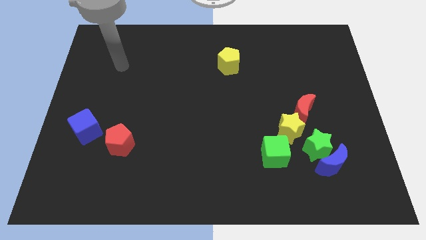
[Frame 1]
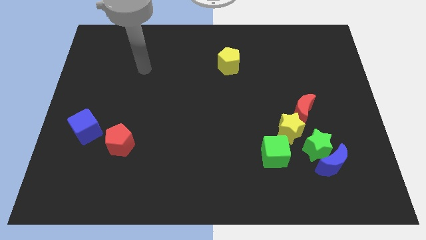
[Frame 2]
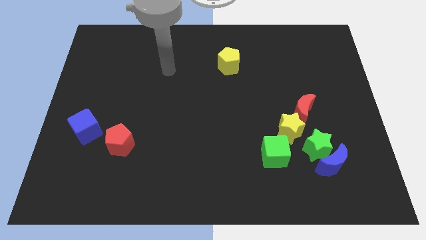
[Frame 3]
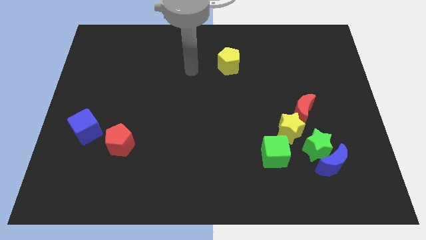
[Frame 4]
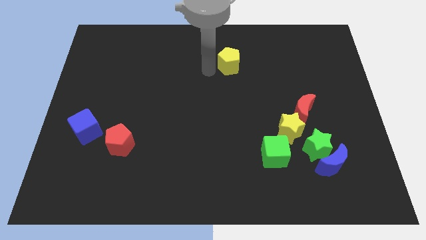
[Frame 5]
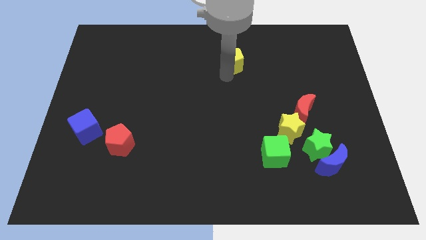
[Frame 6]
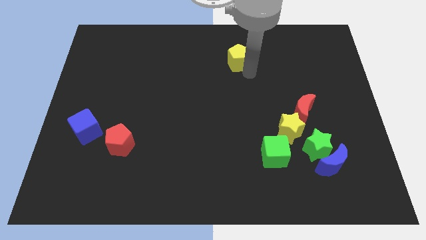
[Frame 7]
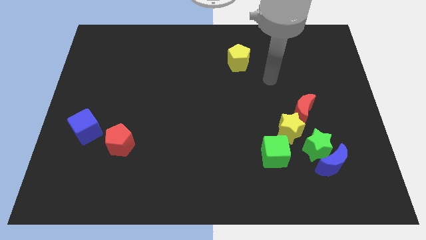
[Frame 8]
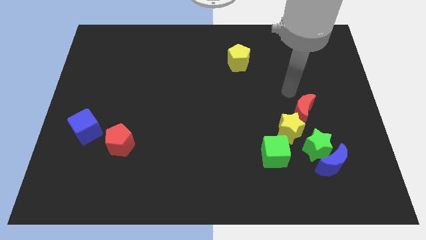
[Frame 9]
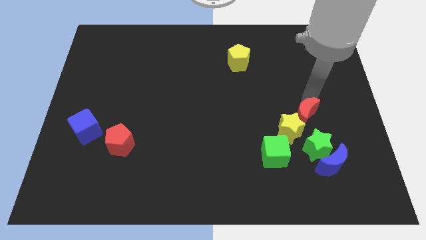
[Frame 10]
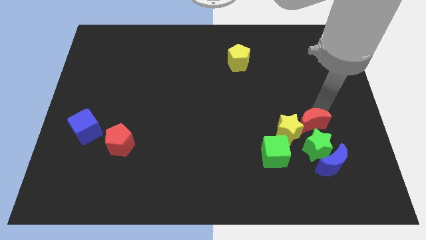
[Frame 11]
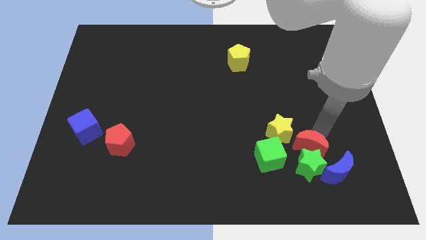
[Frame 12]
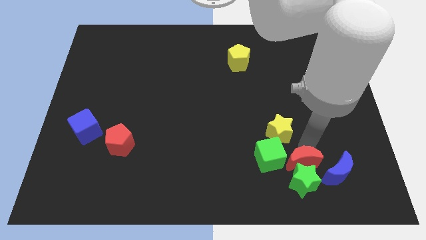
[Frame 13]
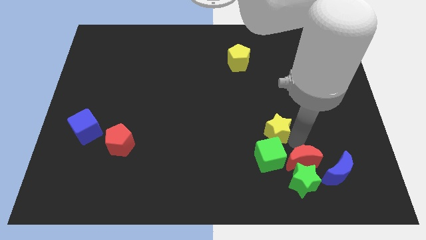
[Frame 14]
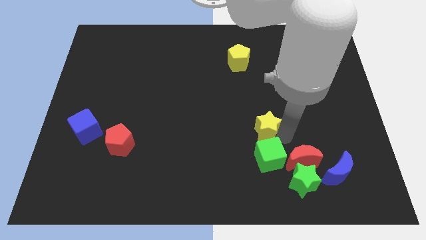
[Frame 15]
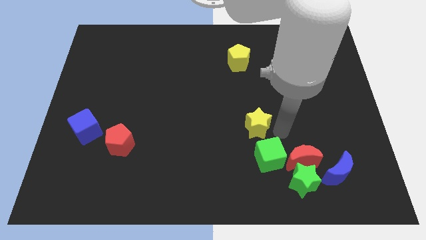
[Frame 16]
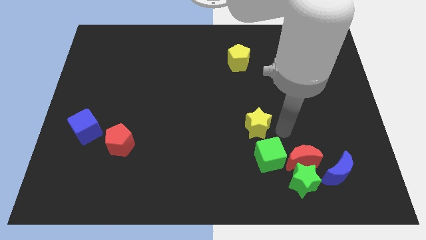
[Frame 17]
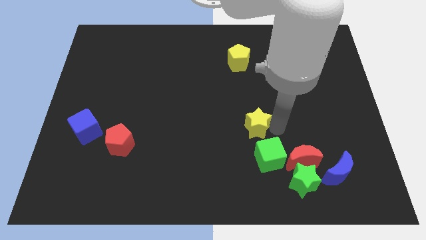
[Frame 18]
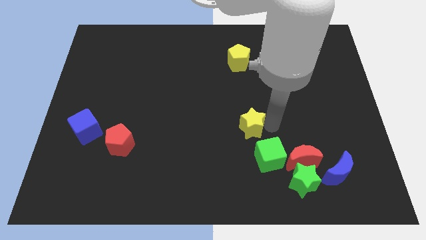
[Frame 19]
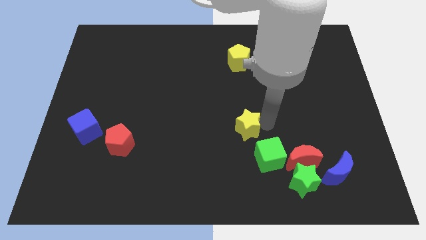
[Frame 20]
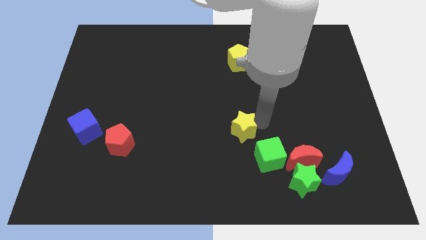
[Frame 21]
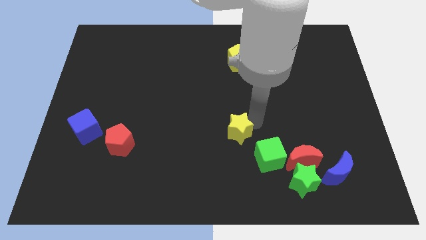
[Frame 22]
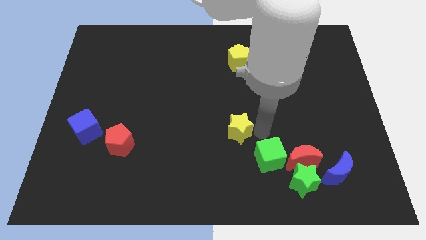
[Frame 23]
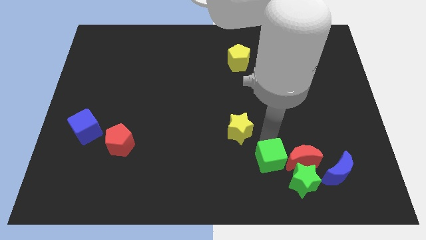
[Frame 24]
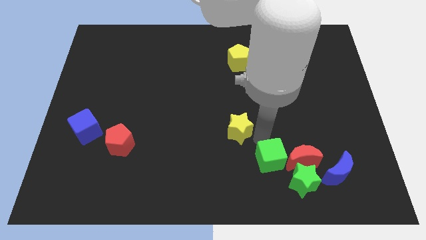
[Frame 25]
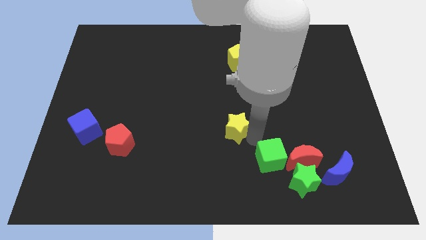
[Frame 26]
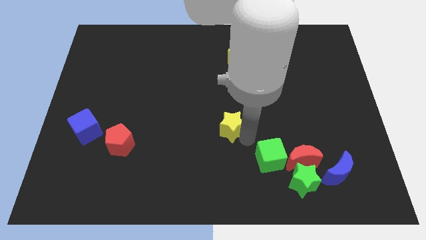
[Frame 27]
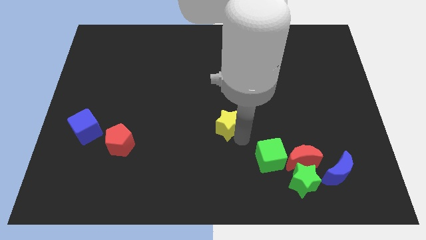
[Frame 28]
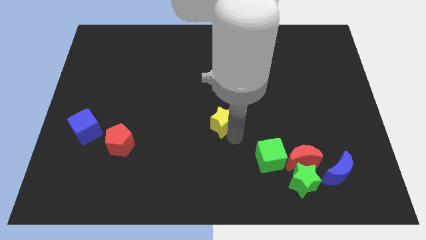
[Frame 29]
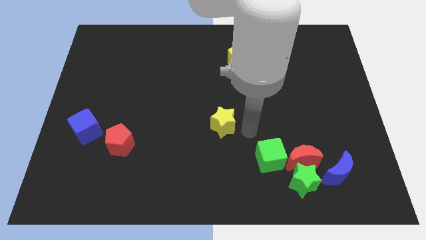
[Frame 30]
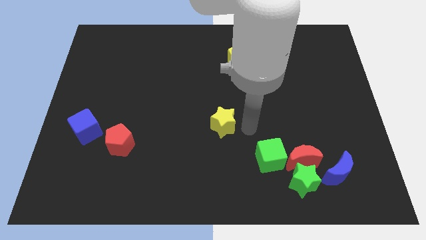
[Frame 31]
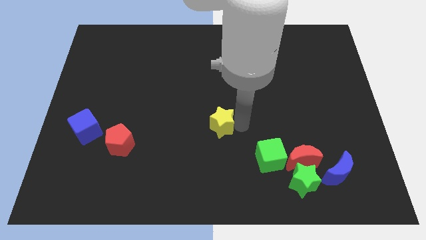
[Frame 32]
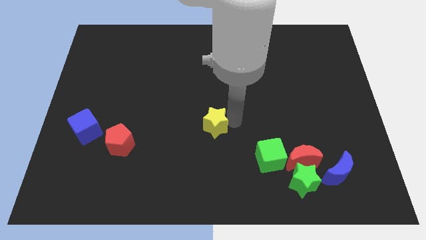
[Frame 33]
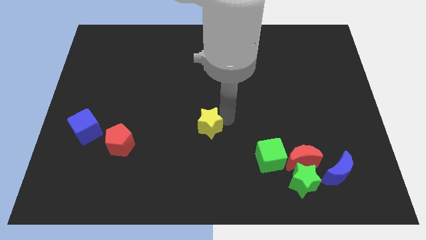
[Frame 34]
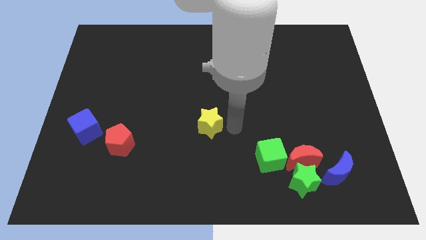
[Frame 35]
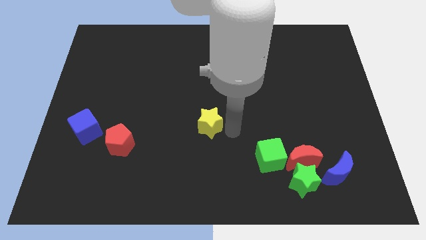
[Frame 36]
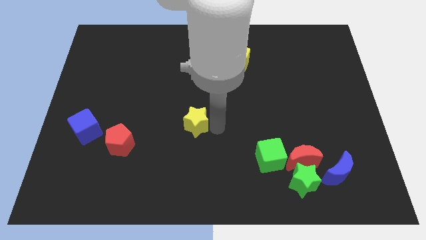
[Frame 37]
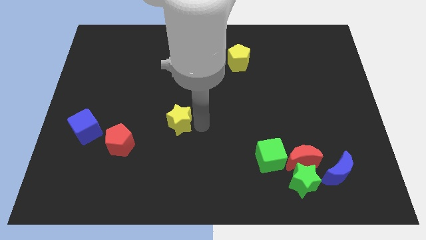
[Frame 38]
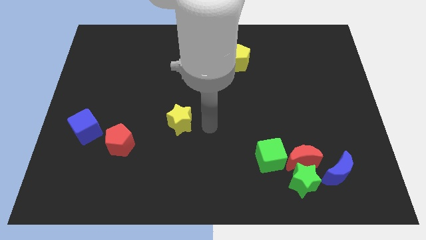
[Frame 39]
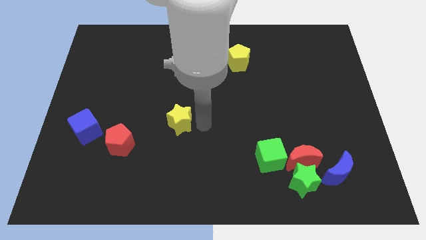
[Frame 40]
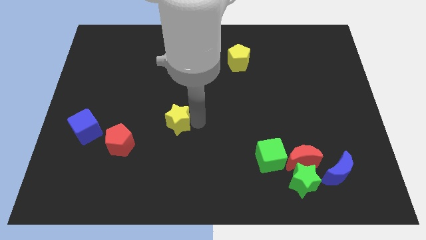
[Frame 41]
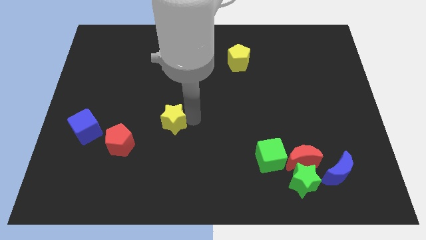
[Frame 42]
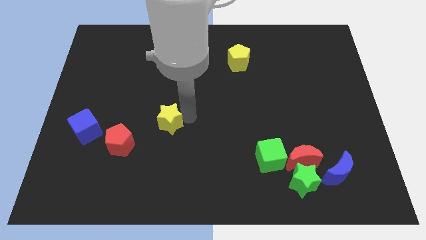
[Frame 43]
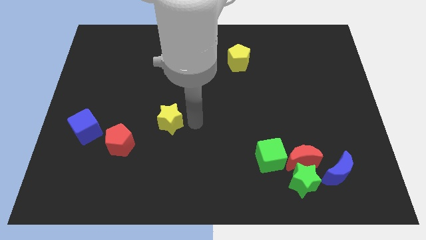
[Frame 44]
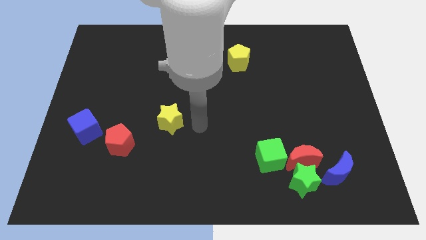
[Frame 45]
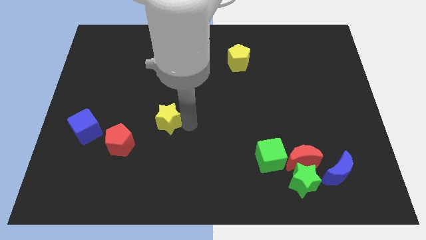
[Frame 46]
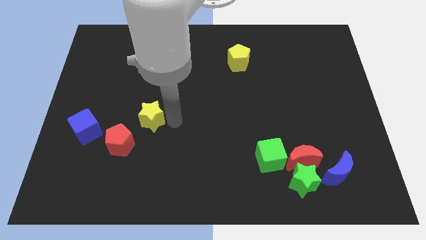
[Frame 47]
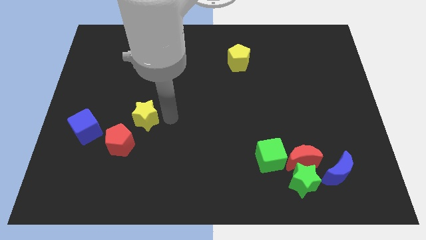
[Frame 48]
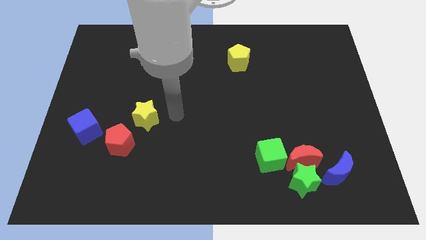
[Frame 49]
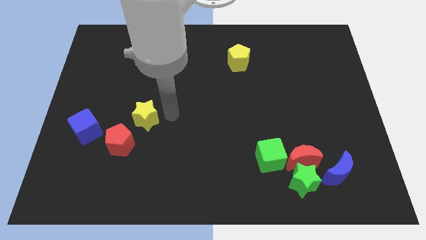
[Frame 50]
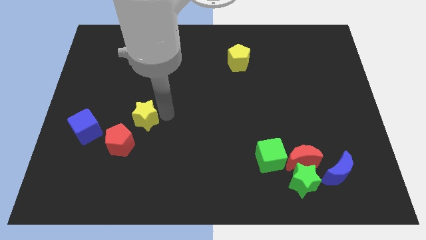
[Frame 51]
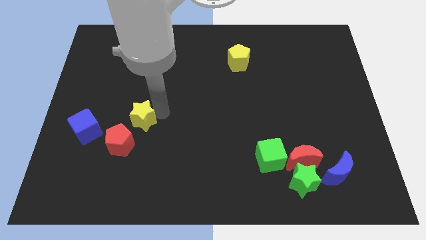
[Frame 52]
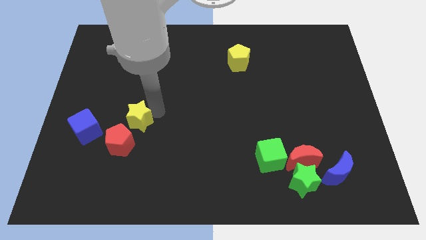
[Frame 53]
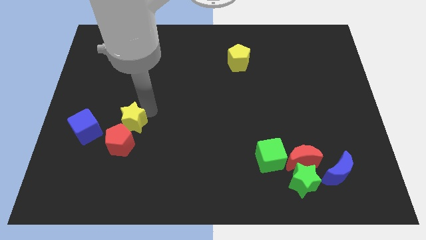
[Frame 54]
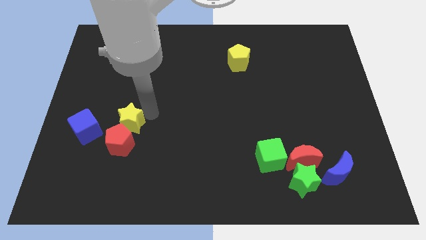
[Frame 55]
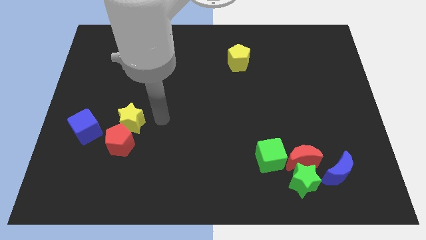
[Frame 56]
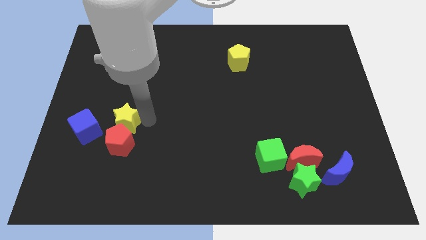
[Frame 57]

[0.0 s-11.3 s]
put the yellow star to the top left of the red pentagon

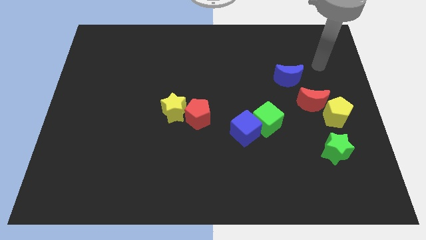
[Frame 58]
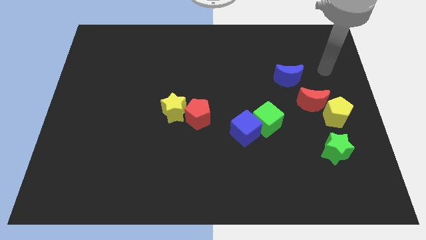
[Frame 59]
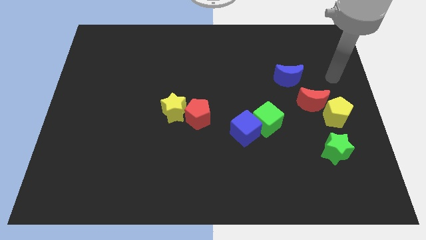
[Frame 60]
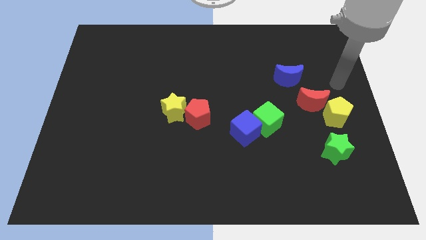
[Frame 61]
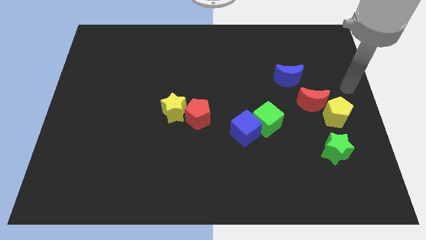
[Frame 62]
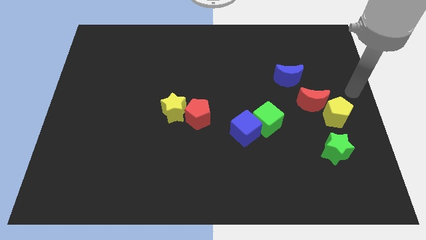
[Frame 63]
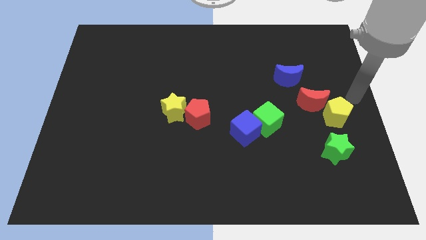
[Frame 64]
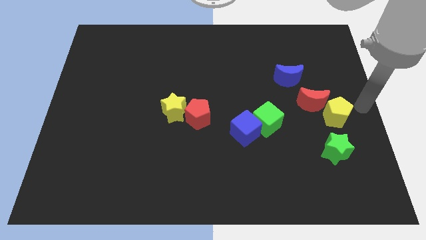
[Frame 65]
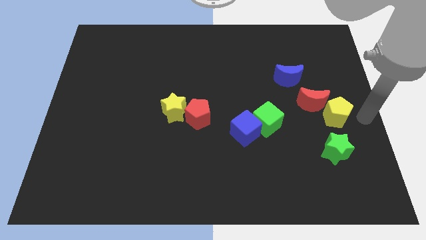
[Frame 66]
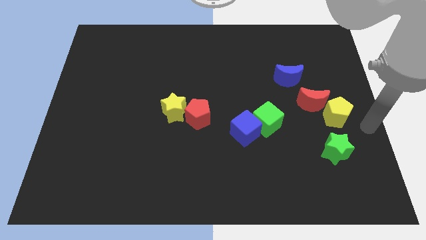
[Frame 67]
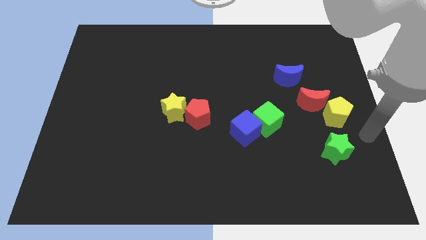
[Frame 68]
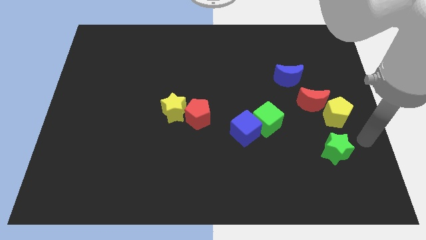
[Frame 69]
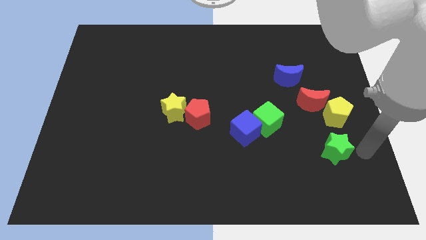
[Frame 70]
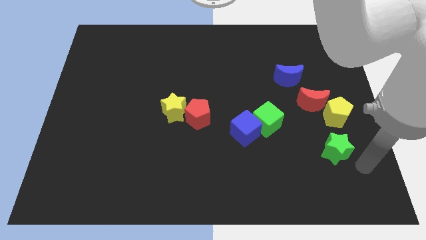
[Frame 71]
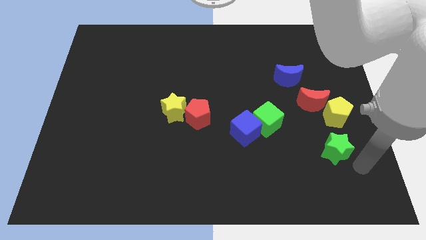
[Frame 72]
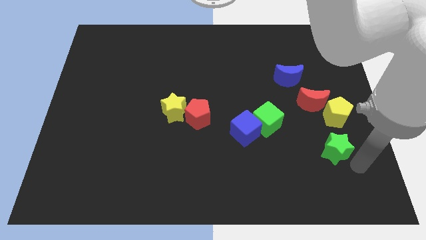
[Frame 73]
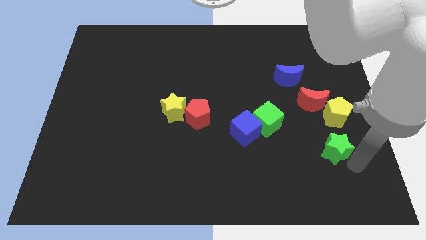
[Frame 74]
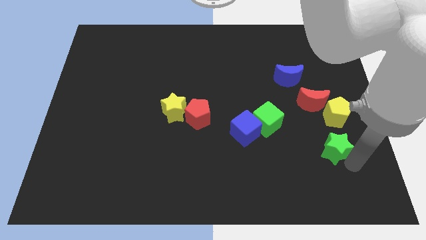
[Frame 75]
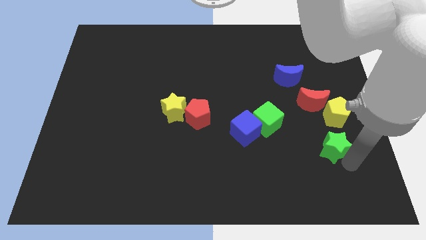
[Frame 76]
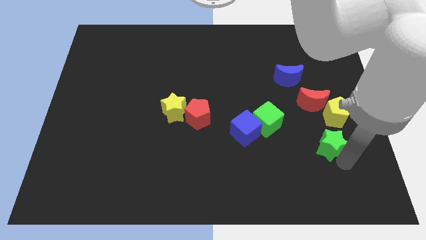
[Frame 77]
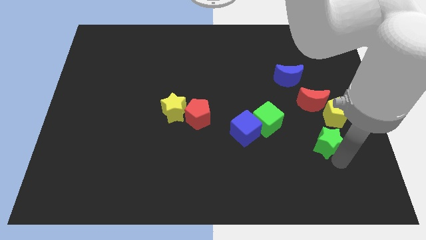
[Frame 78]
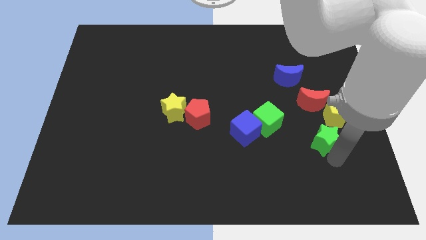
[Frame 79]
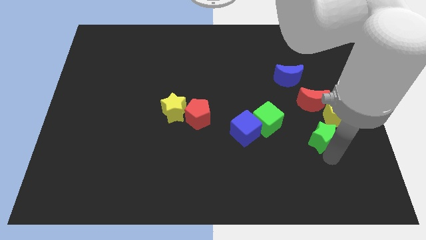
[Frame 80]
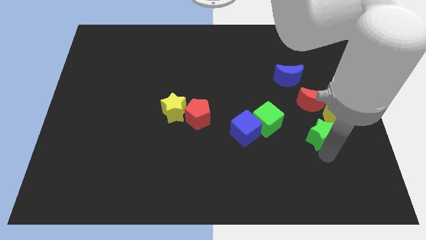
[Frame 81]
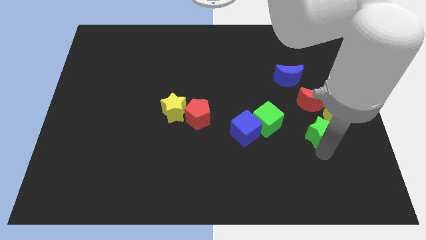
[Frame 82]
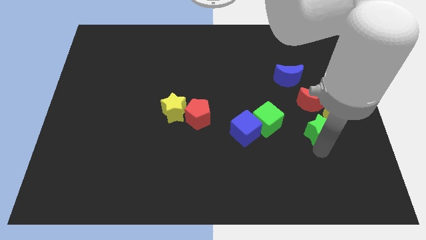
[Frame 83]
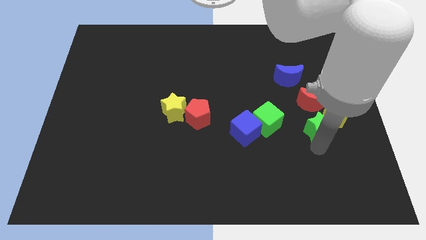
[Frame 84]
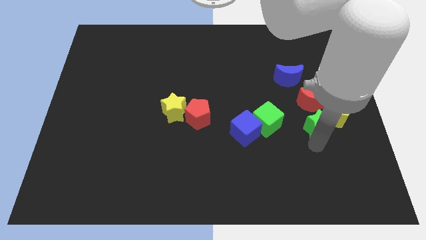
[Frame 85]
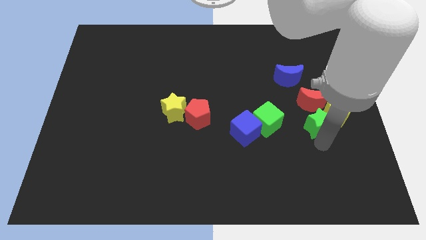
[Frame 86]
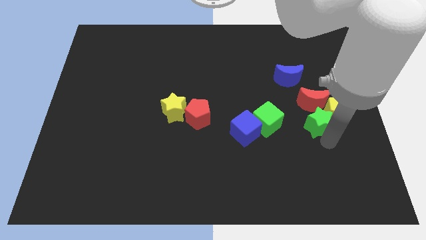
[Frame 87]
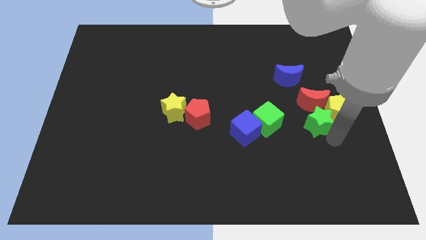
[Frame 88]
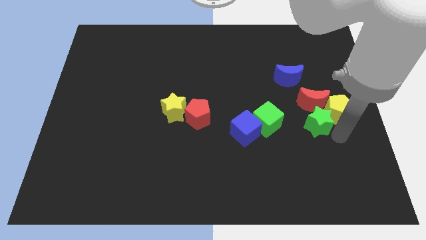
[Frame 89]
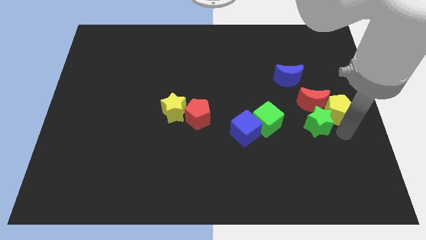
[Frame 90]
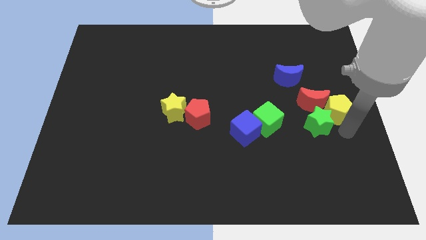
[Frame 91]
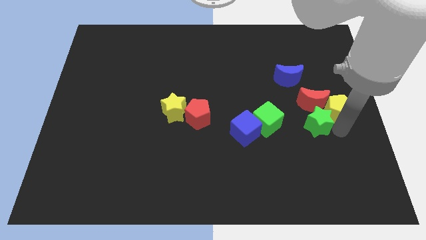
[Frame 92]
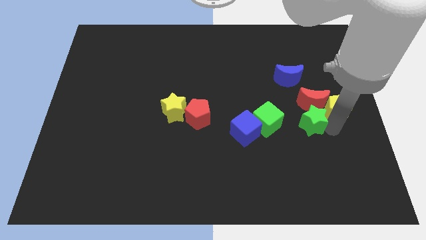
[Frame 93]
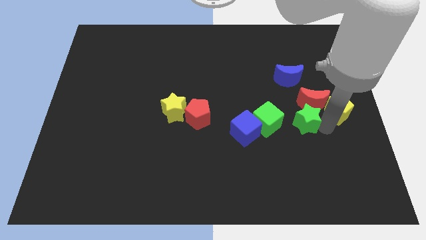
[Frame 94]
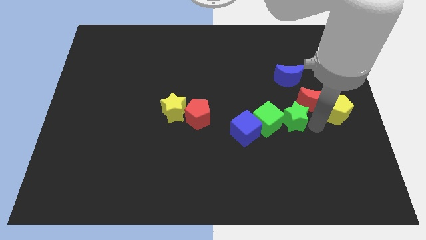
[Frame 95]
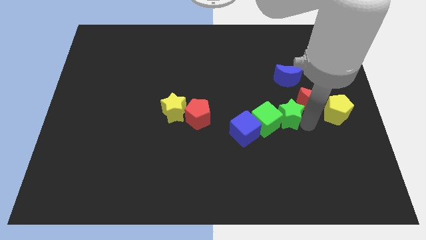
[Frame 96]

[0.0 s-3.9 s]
slide the green star to the top right of the blue cube
